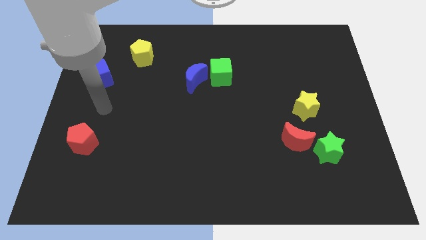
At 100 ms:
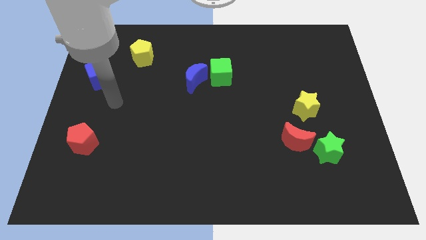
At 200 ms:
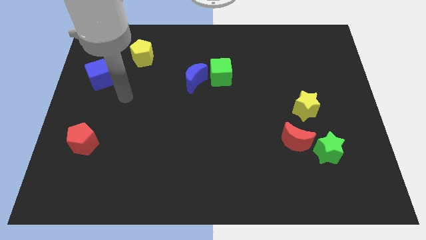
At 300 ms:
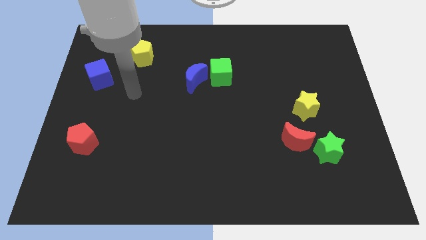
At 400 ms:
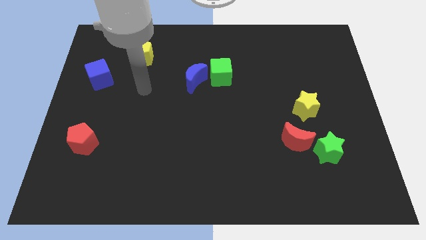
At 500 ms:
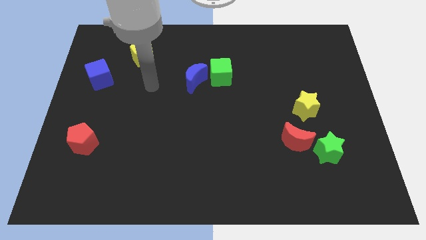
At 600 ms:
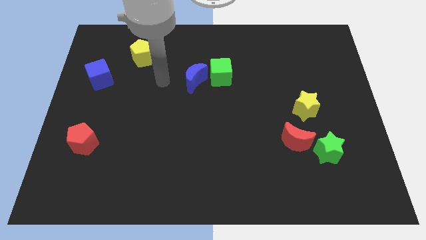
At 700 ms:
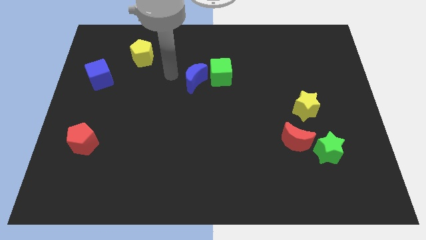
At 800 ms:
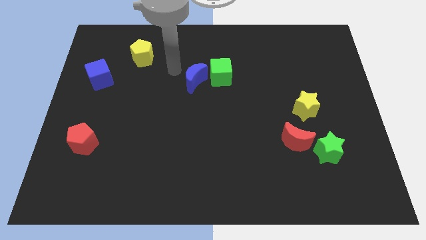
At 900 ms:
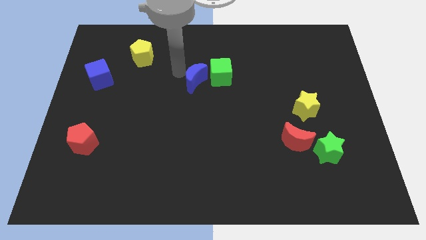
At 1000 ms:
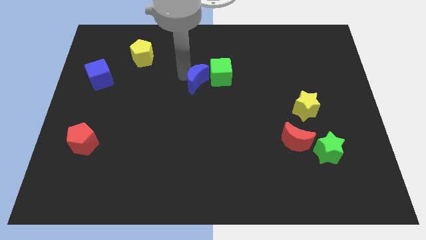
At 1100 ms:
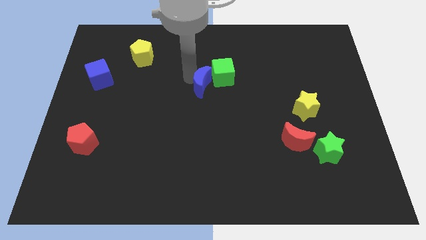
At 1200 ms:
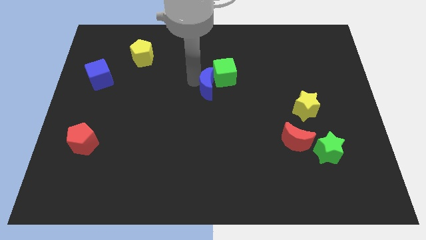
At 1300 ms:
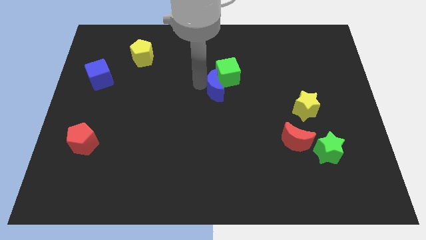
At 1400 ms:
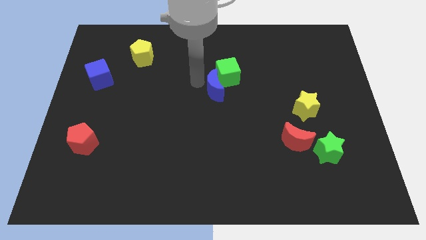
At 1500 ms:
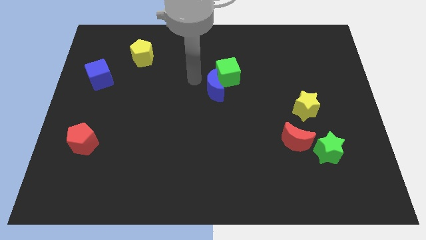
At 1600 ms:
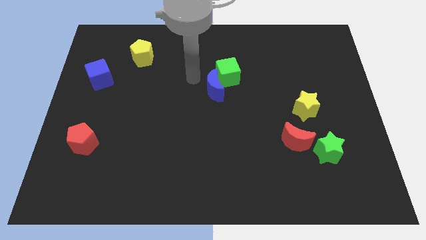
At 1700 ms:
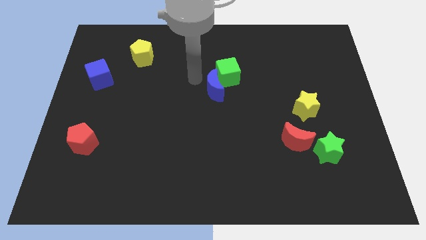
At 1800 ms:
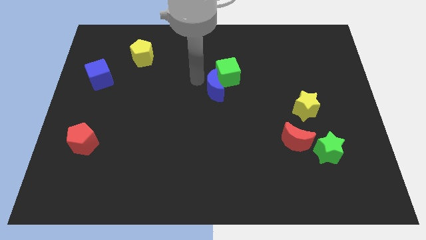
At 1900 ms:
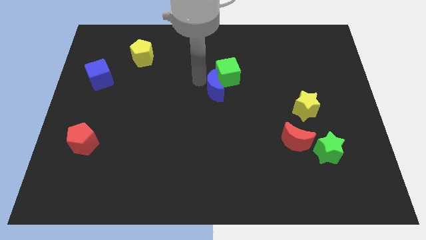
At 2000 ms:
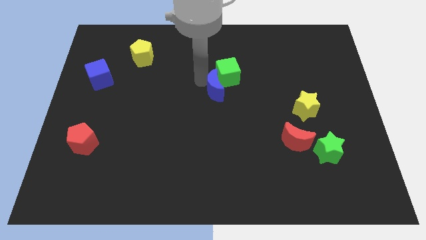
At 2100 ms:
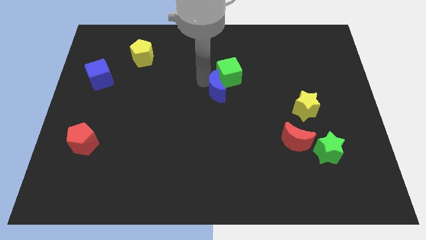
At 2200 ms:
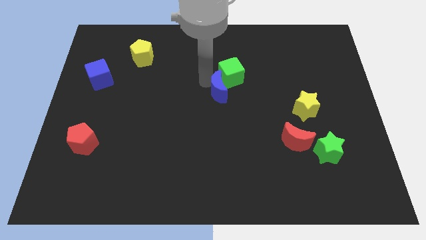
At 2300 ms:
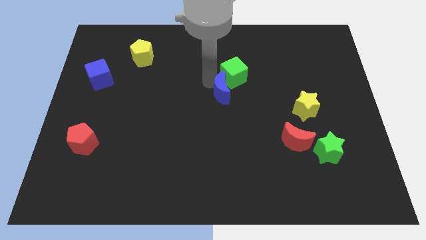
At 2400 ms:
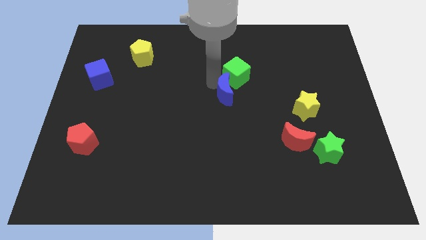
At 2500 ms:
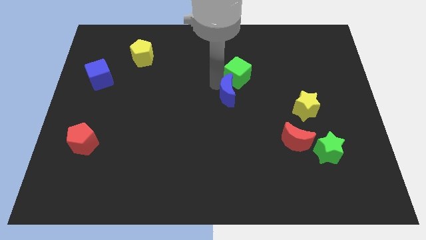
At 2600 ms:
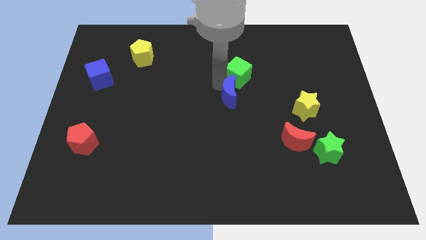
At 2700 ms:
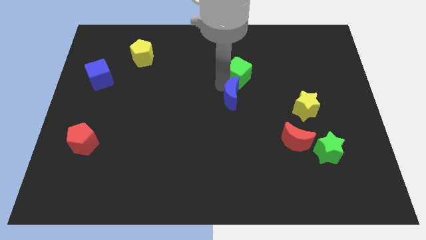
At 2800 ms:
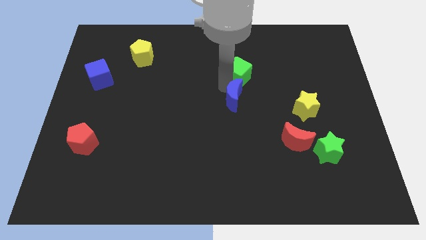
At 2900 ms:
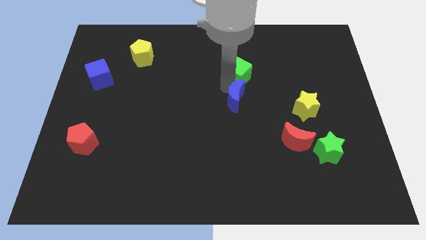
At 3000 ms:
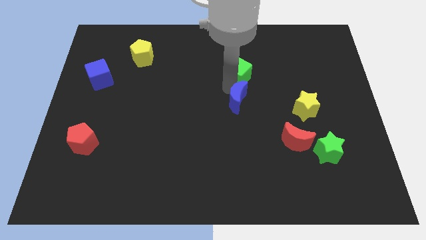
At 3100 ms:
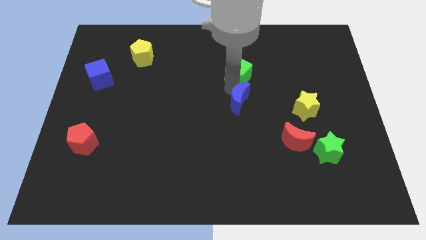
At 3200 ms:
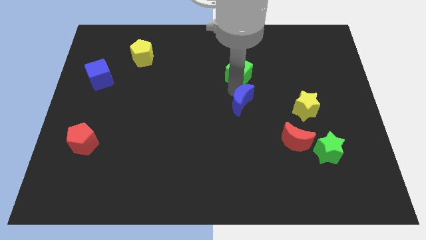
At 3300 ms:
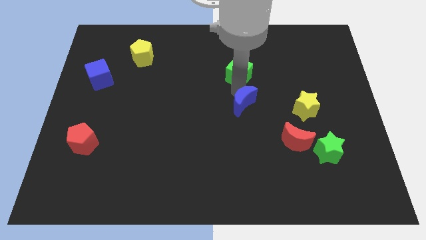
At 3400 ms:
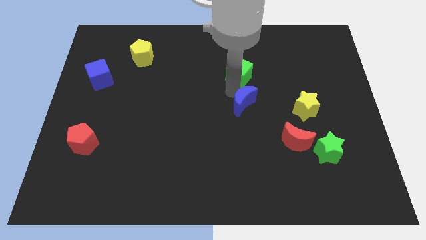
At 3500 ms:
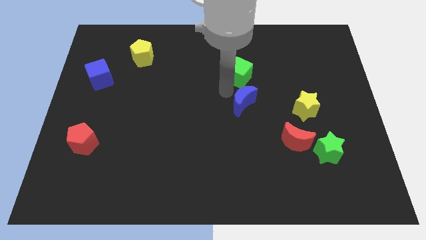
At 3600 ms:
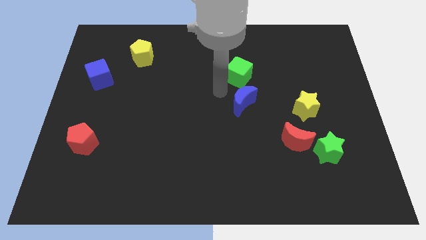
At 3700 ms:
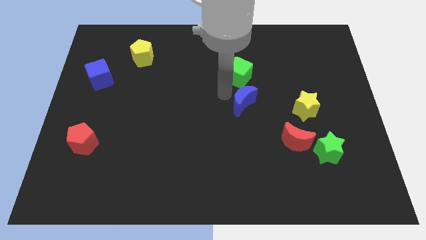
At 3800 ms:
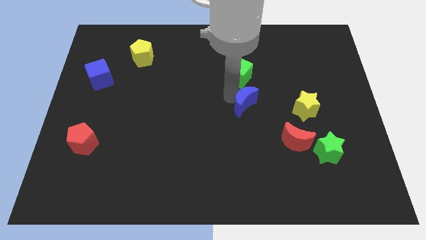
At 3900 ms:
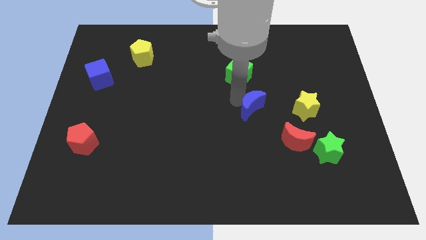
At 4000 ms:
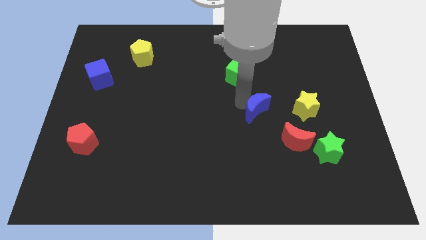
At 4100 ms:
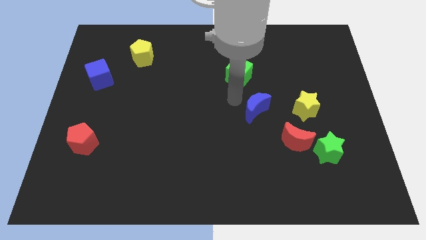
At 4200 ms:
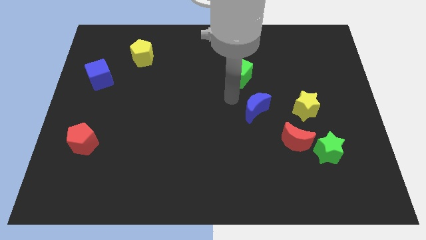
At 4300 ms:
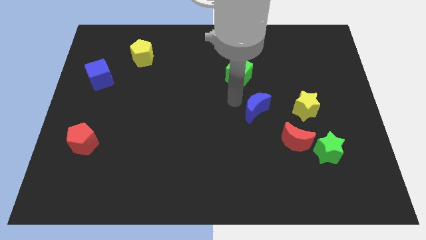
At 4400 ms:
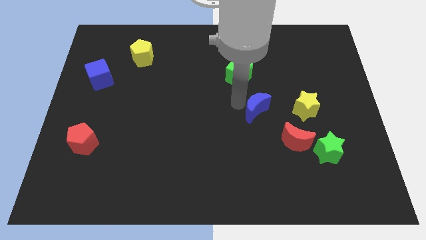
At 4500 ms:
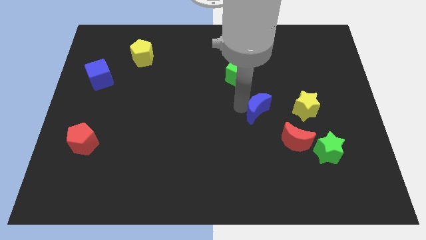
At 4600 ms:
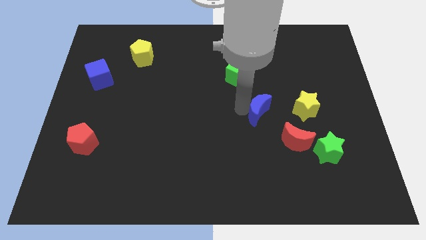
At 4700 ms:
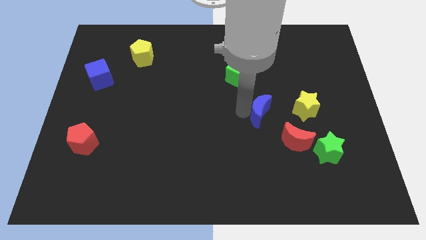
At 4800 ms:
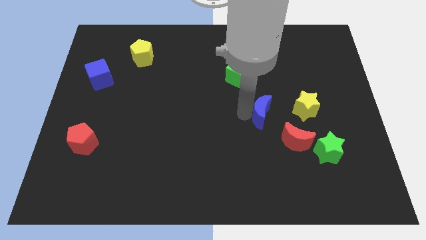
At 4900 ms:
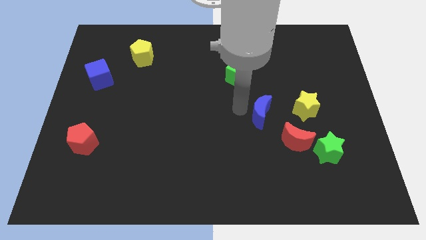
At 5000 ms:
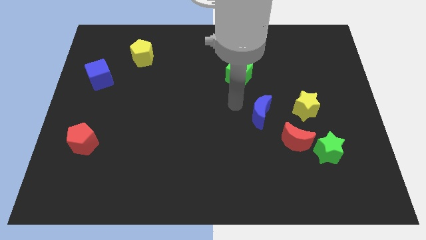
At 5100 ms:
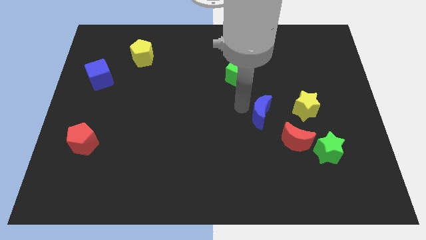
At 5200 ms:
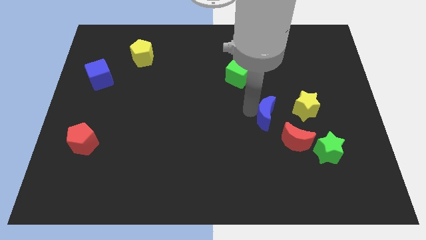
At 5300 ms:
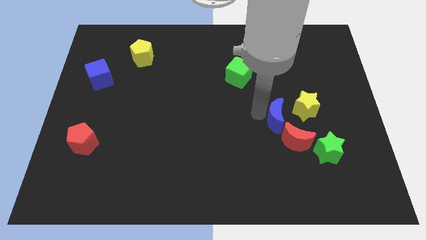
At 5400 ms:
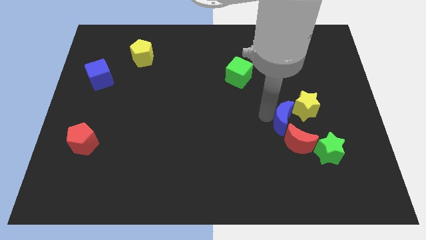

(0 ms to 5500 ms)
slide the blue moon diagonally up and to the left of the green star

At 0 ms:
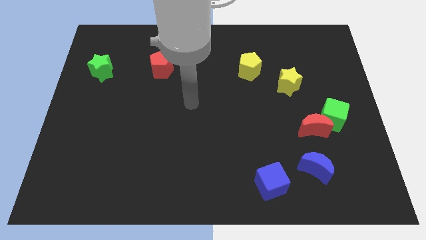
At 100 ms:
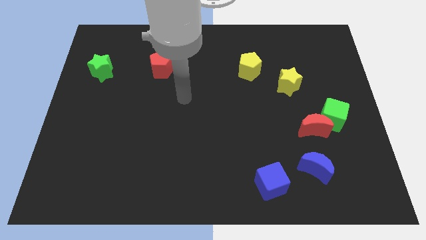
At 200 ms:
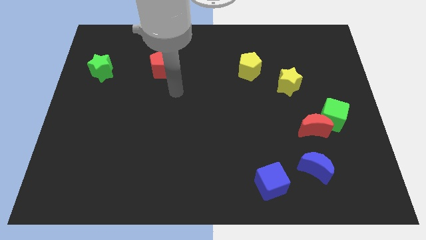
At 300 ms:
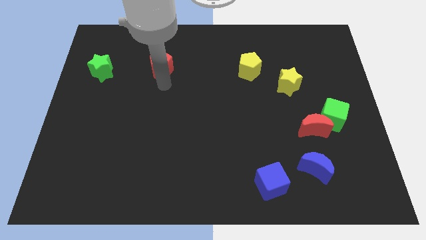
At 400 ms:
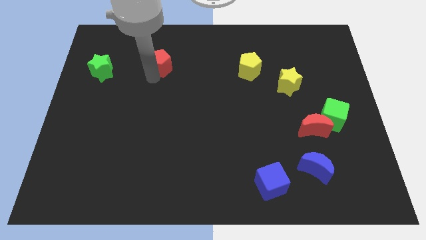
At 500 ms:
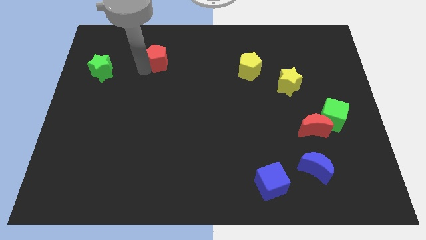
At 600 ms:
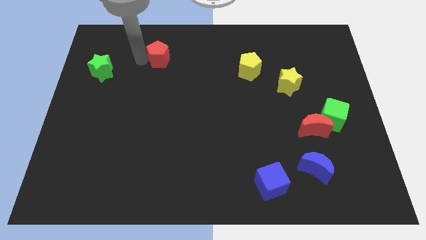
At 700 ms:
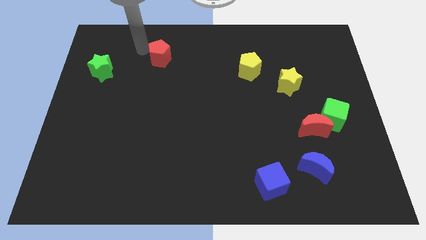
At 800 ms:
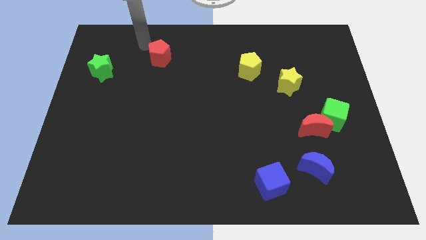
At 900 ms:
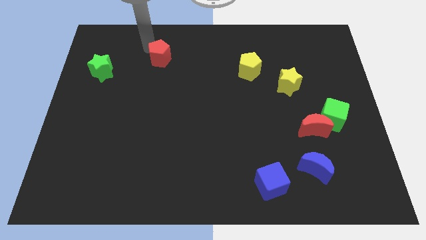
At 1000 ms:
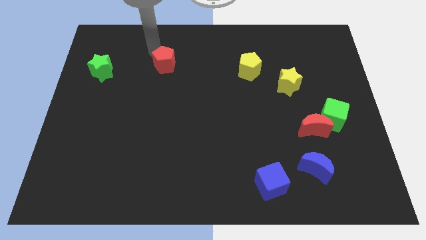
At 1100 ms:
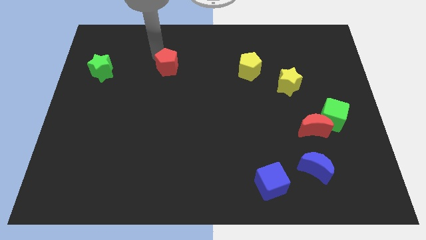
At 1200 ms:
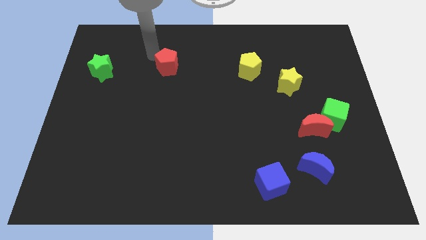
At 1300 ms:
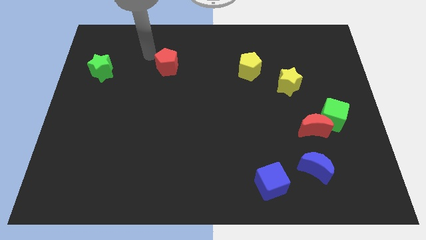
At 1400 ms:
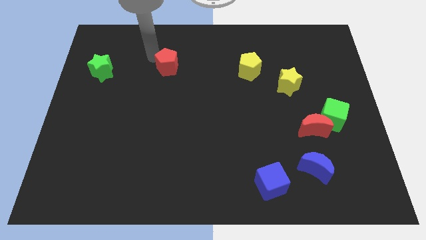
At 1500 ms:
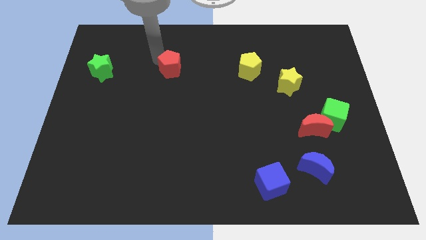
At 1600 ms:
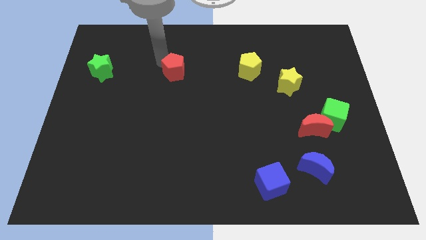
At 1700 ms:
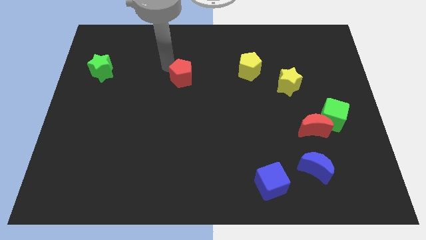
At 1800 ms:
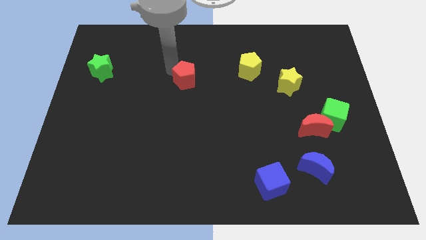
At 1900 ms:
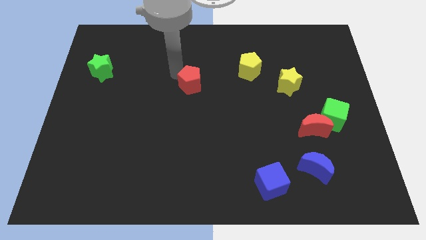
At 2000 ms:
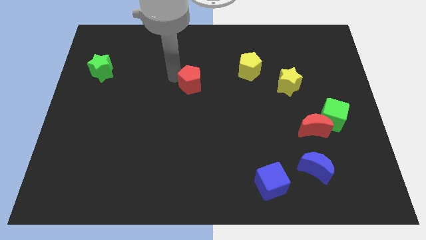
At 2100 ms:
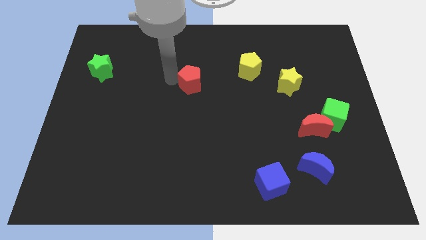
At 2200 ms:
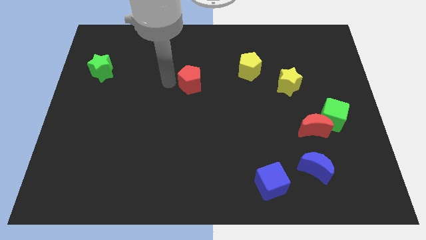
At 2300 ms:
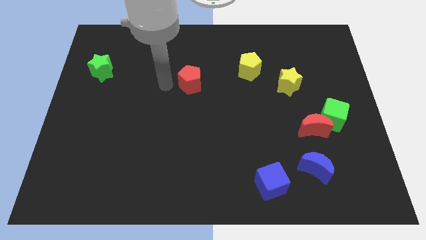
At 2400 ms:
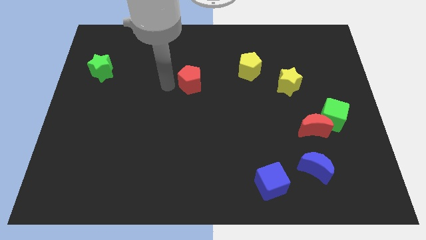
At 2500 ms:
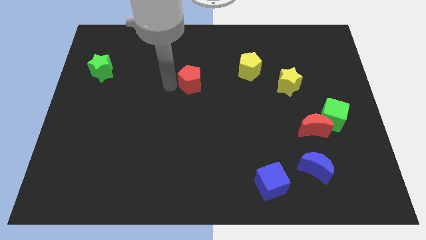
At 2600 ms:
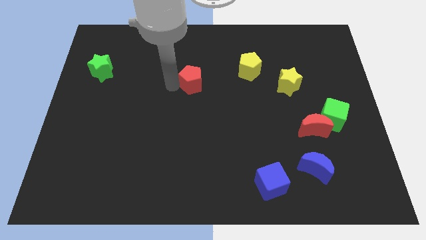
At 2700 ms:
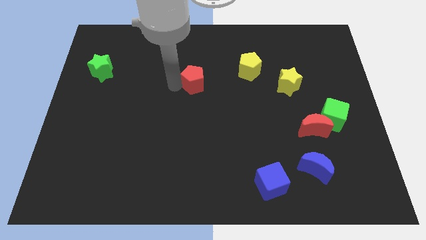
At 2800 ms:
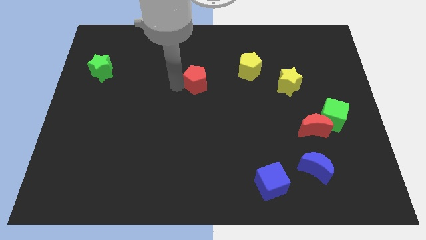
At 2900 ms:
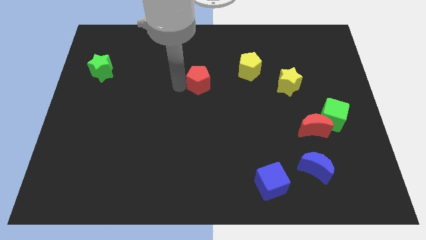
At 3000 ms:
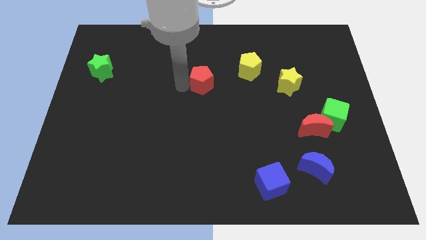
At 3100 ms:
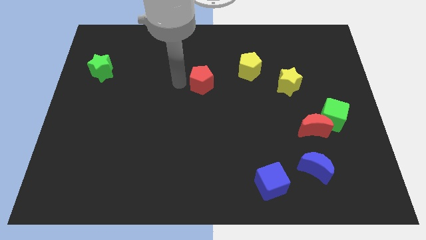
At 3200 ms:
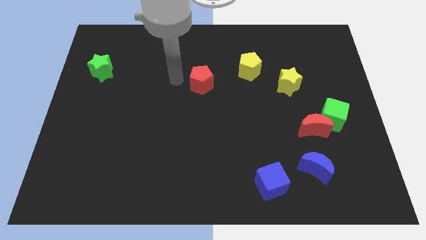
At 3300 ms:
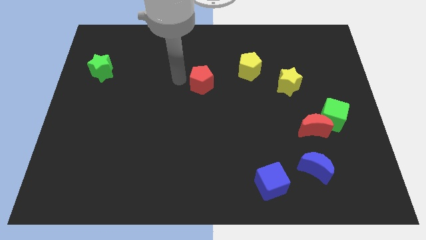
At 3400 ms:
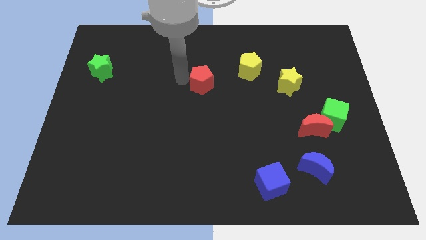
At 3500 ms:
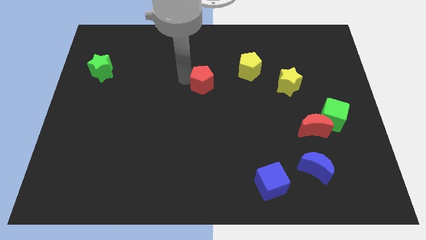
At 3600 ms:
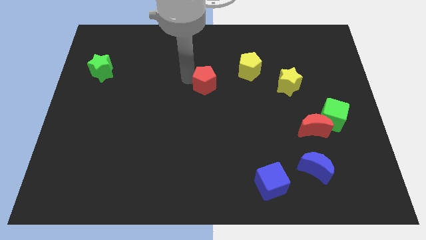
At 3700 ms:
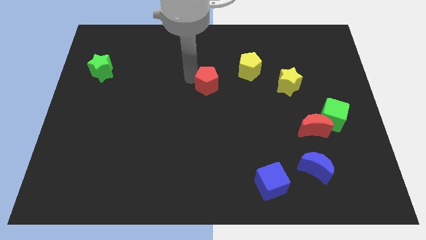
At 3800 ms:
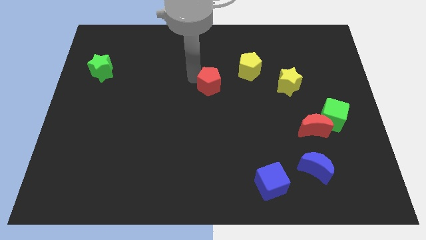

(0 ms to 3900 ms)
slide the red pentagon diagonally down and to the left of the yellow pentagon
